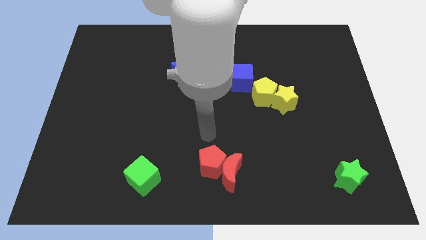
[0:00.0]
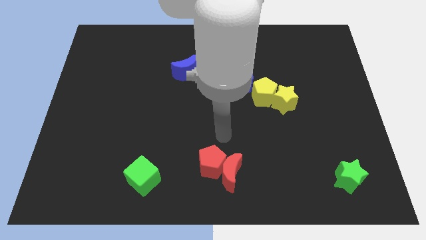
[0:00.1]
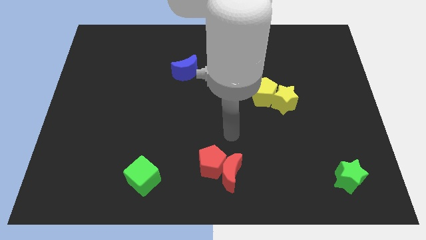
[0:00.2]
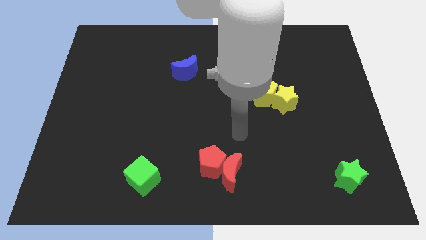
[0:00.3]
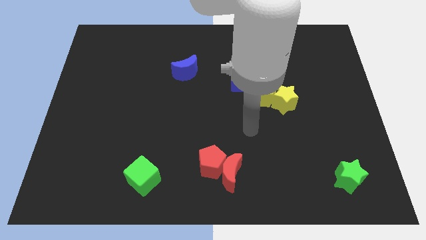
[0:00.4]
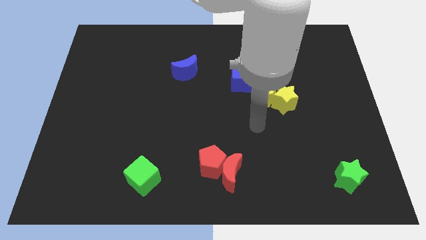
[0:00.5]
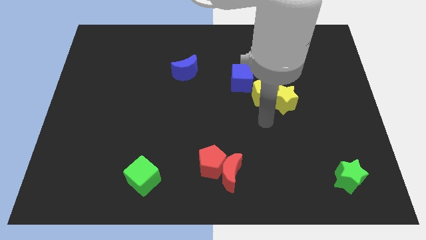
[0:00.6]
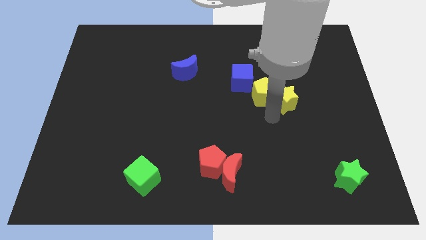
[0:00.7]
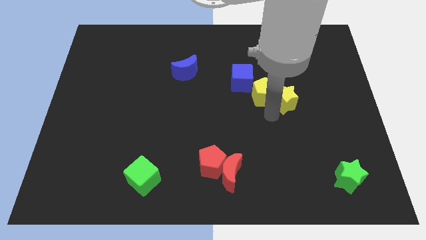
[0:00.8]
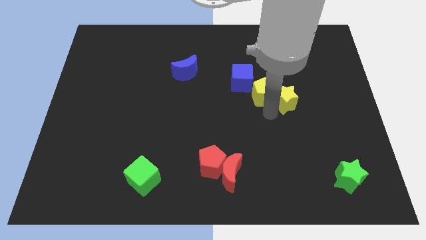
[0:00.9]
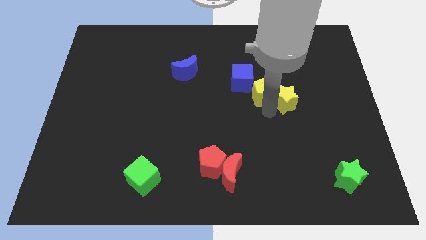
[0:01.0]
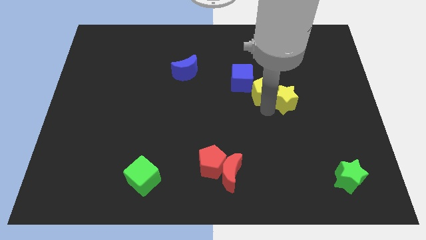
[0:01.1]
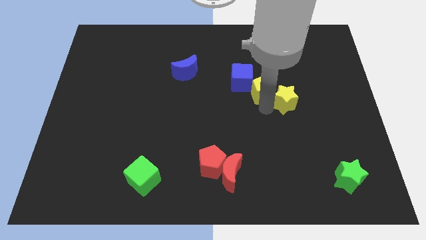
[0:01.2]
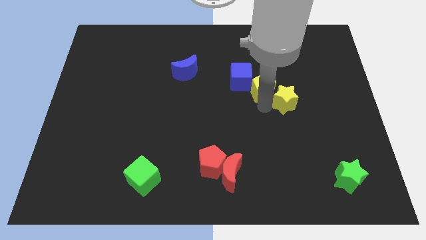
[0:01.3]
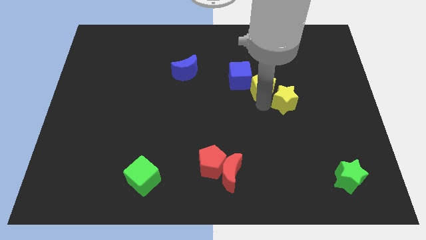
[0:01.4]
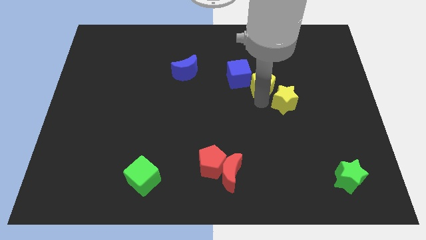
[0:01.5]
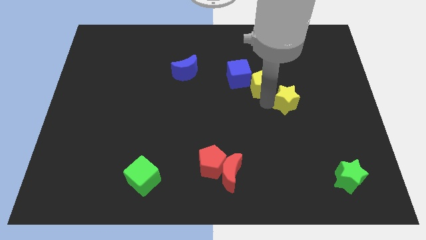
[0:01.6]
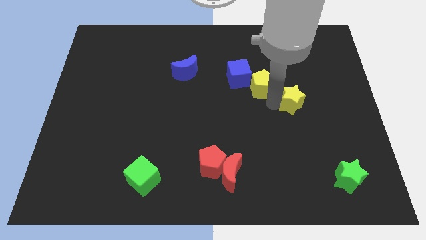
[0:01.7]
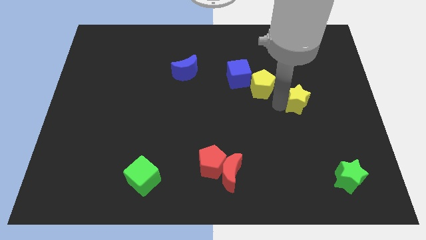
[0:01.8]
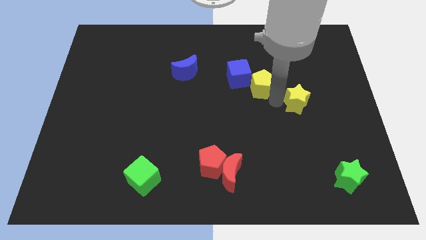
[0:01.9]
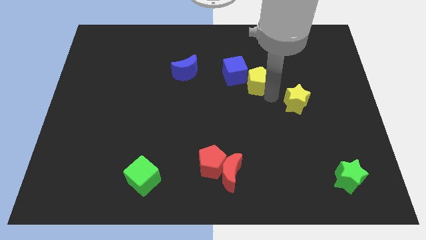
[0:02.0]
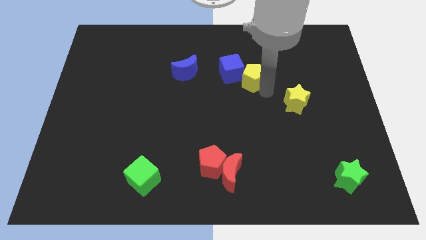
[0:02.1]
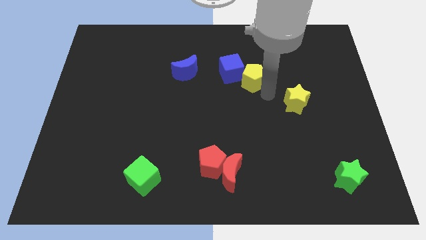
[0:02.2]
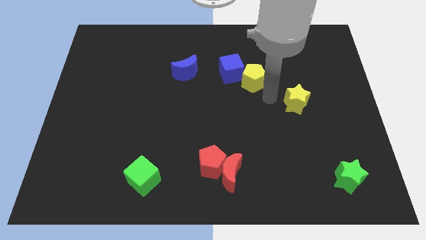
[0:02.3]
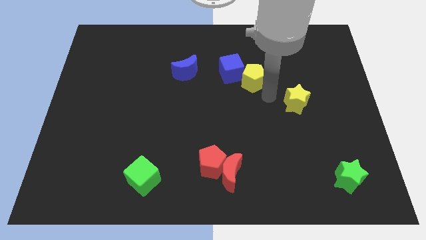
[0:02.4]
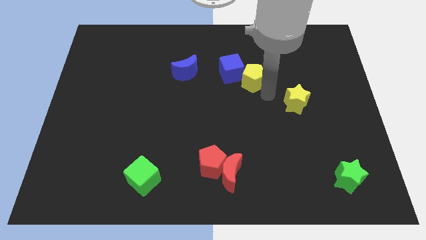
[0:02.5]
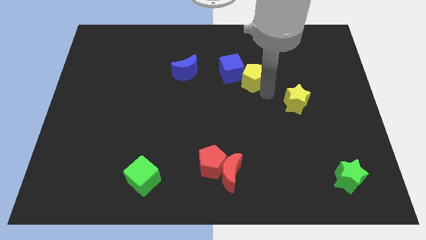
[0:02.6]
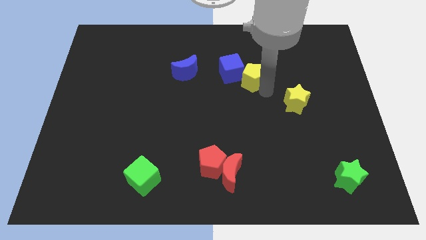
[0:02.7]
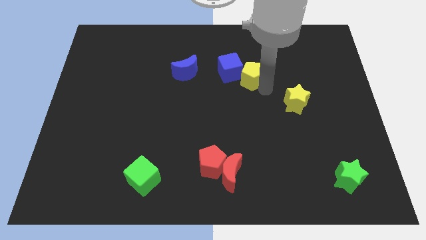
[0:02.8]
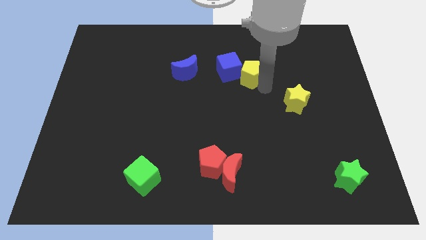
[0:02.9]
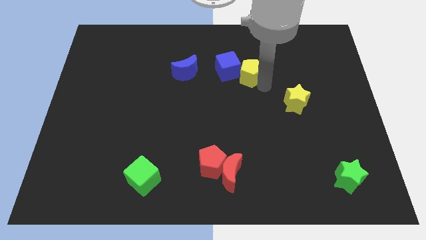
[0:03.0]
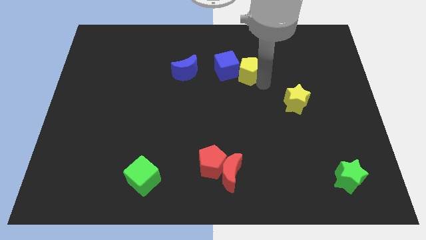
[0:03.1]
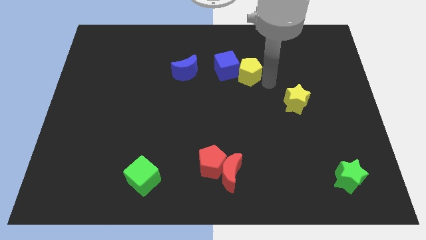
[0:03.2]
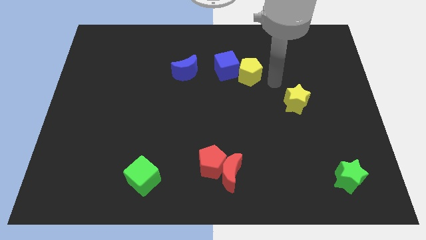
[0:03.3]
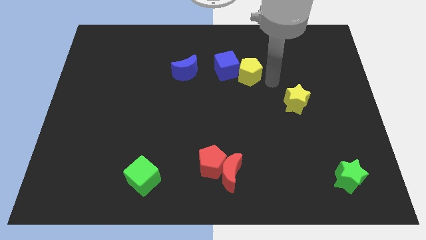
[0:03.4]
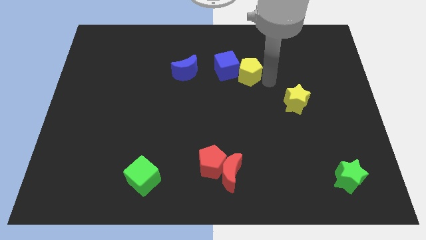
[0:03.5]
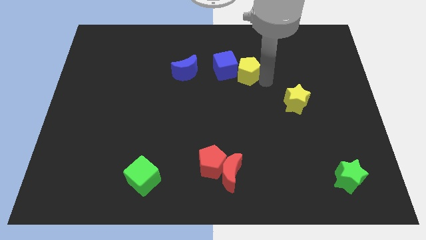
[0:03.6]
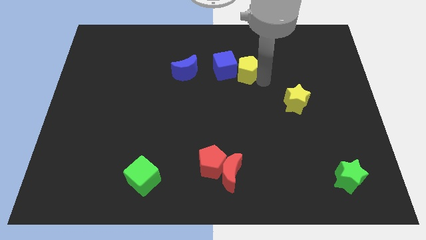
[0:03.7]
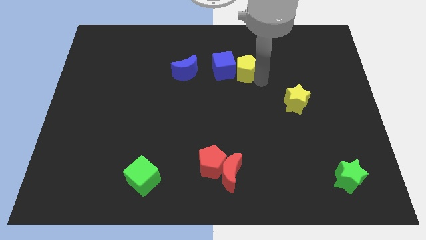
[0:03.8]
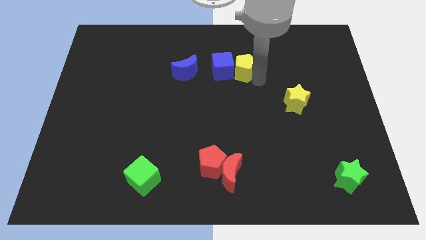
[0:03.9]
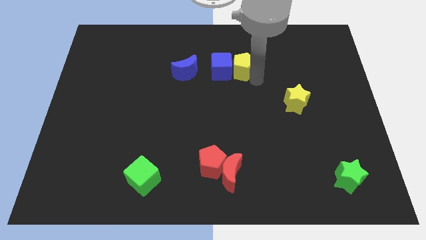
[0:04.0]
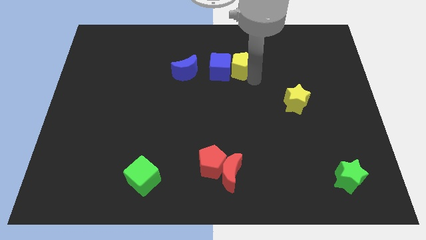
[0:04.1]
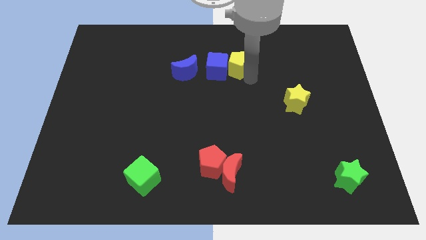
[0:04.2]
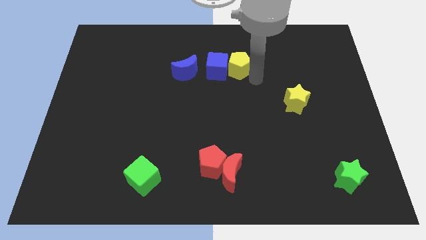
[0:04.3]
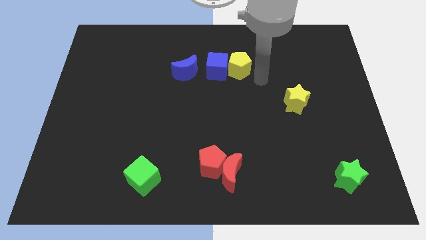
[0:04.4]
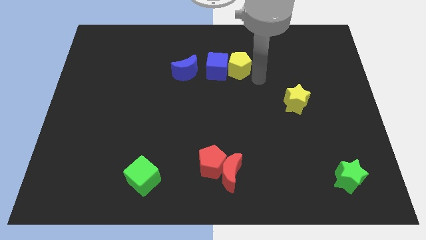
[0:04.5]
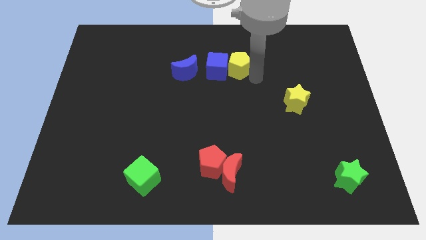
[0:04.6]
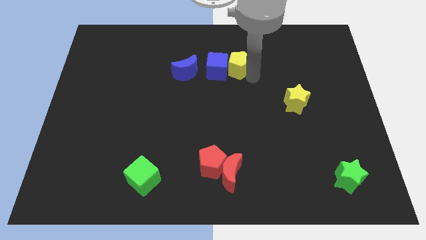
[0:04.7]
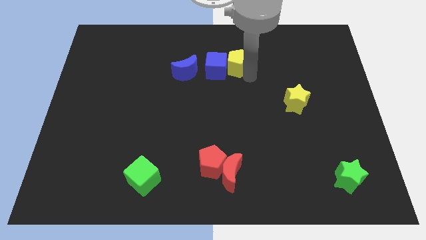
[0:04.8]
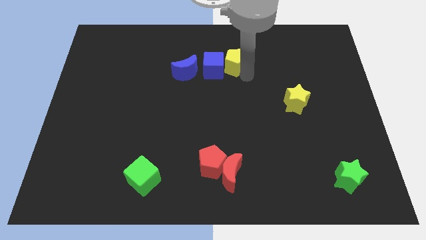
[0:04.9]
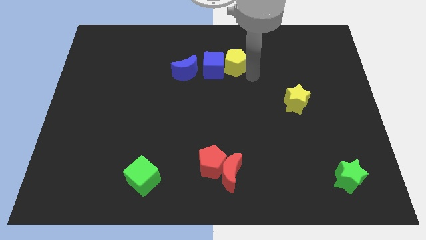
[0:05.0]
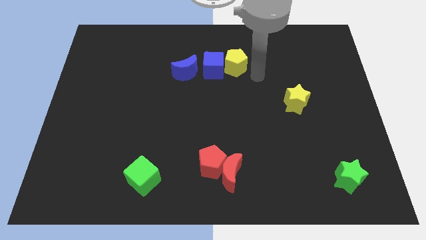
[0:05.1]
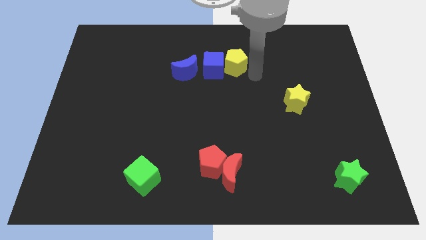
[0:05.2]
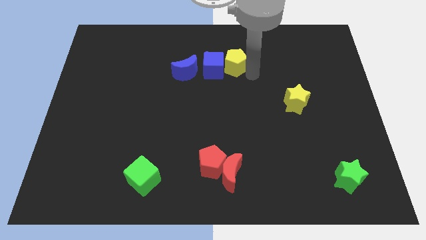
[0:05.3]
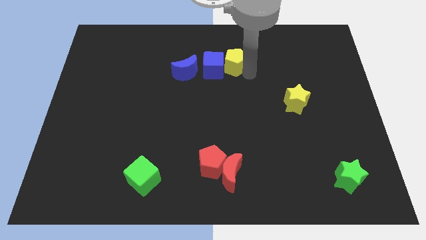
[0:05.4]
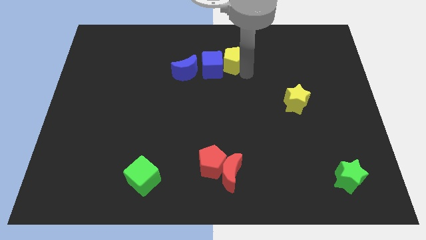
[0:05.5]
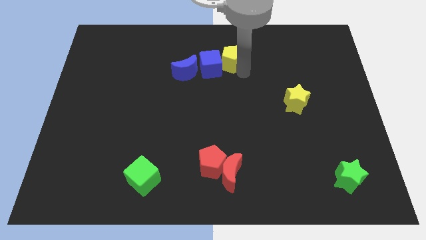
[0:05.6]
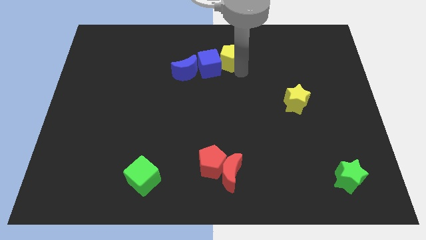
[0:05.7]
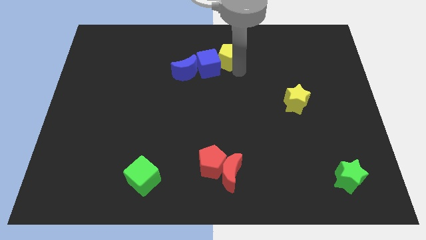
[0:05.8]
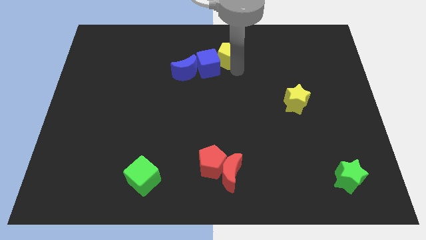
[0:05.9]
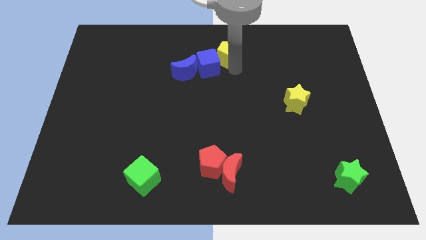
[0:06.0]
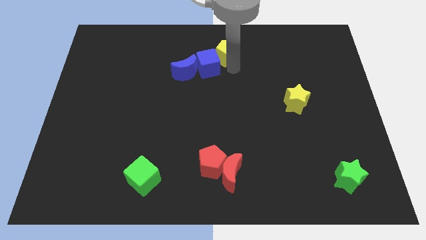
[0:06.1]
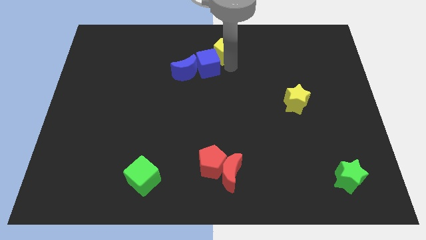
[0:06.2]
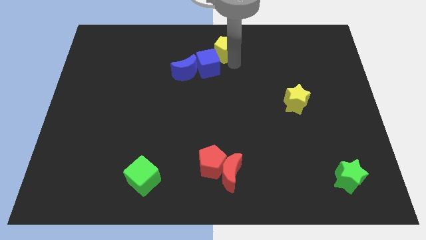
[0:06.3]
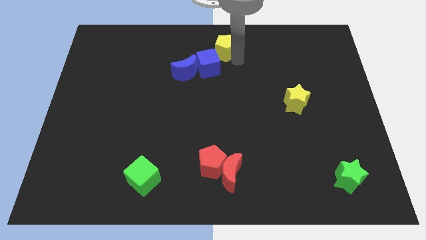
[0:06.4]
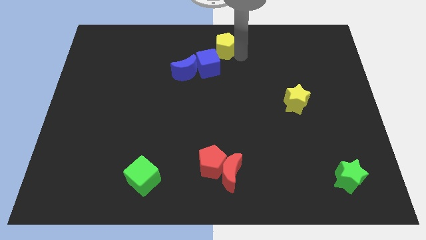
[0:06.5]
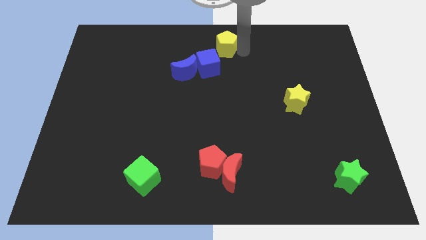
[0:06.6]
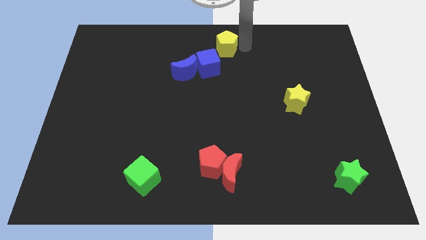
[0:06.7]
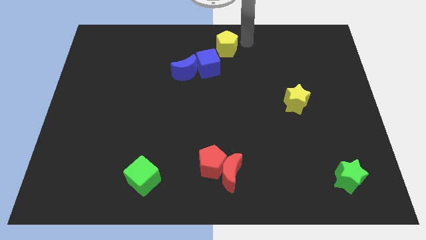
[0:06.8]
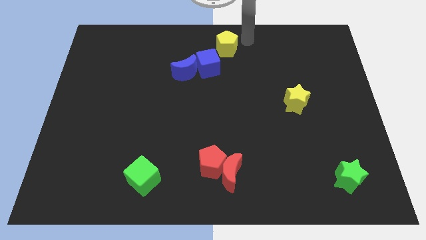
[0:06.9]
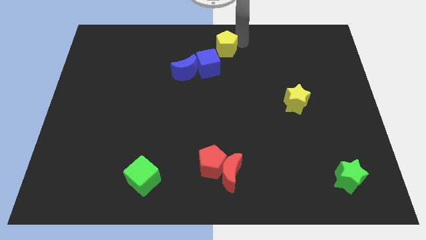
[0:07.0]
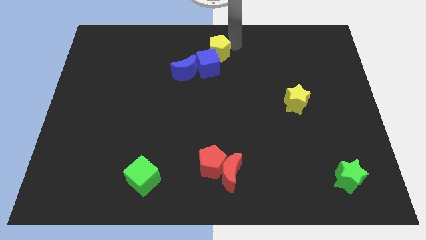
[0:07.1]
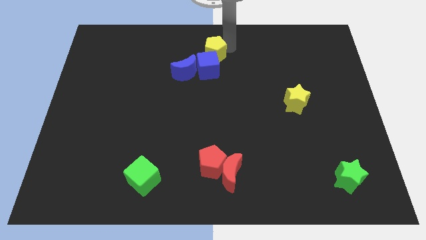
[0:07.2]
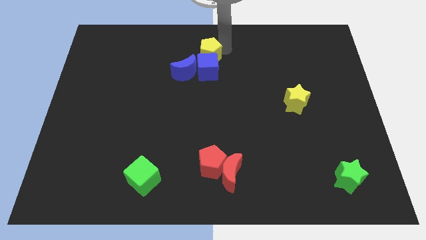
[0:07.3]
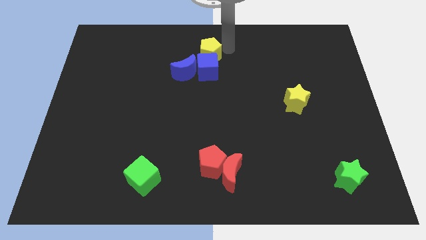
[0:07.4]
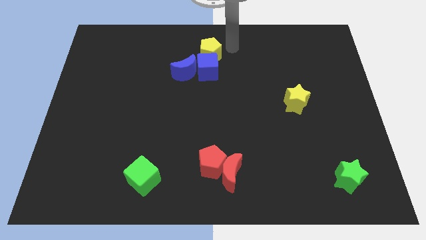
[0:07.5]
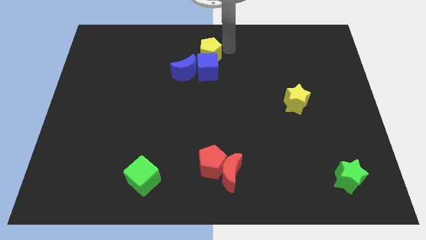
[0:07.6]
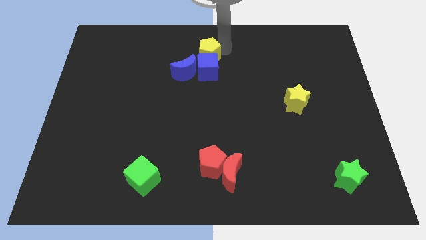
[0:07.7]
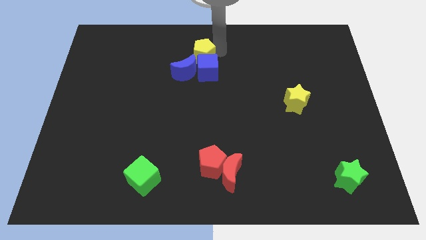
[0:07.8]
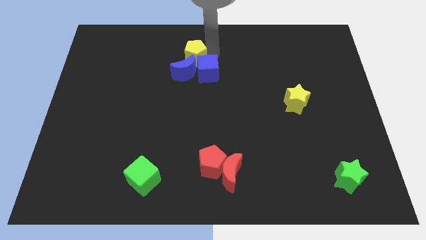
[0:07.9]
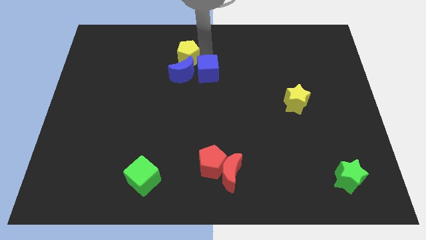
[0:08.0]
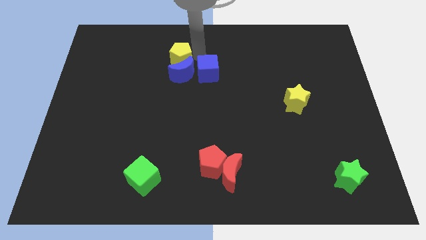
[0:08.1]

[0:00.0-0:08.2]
move the yellow pentagon to the top left of the blue moon
